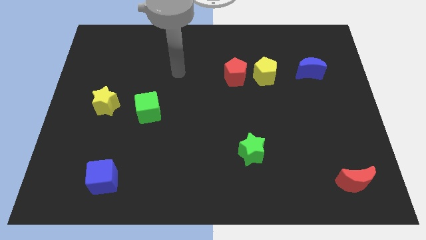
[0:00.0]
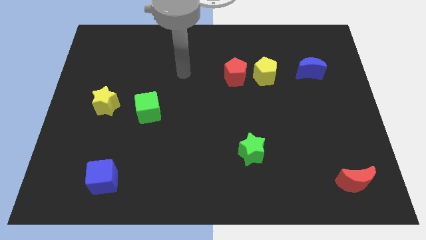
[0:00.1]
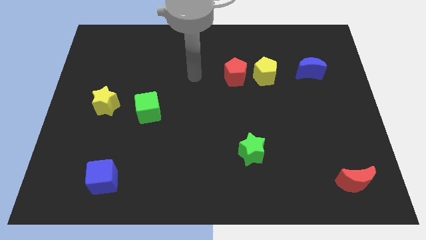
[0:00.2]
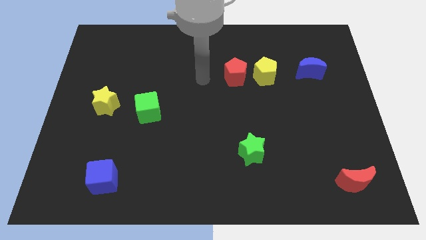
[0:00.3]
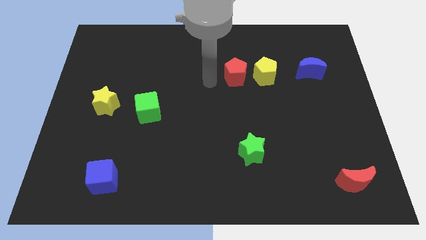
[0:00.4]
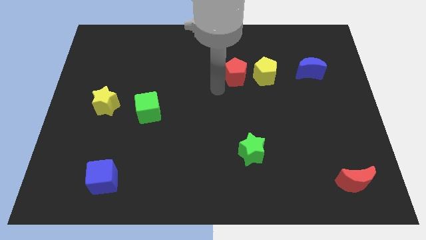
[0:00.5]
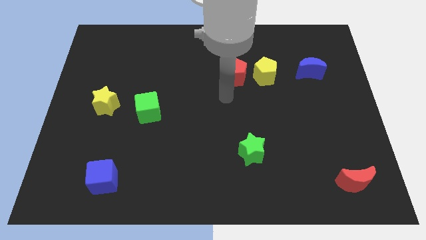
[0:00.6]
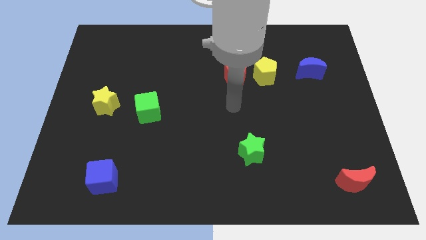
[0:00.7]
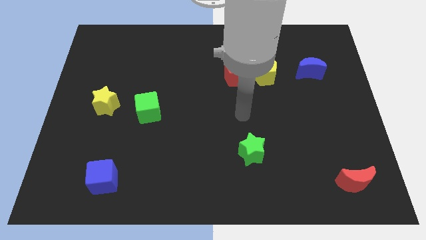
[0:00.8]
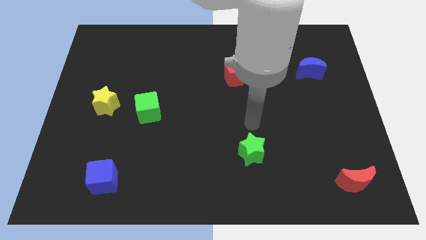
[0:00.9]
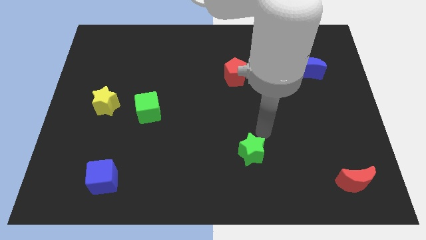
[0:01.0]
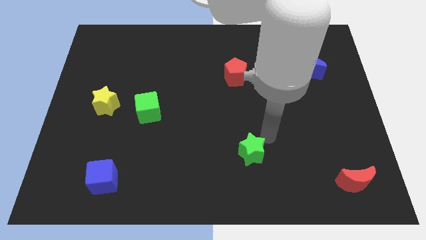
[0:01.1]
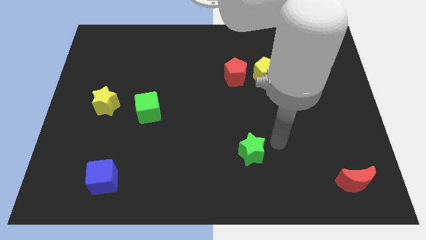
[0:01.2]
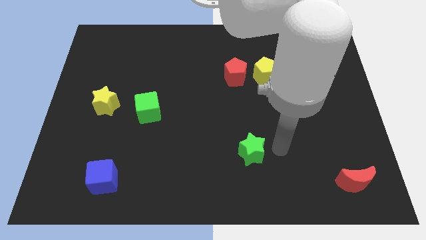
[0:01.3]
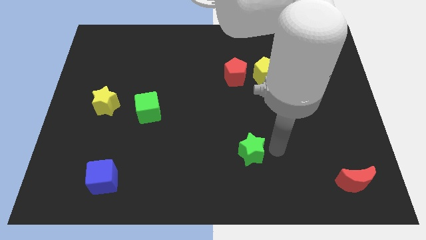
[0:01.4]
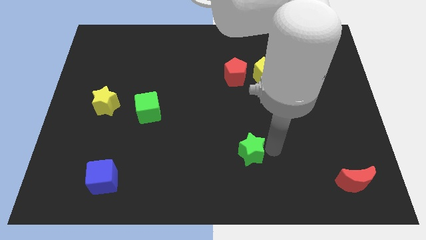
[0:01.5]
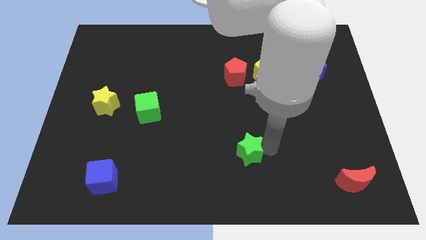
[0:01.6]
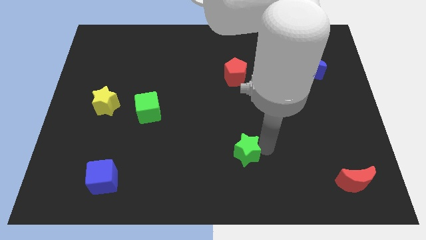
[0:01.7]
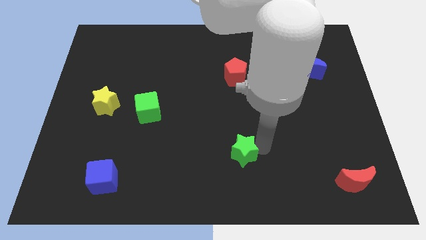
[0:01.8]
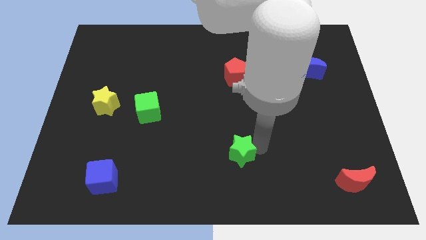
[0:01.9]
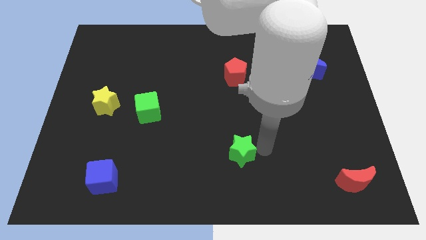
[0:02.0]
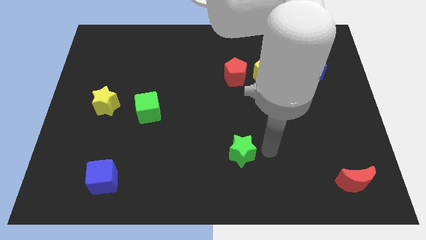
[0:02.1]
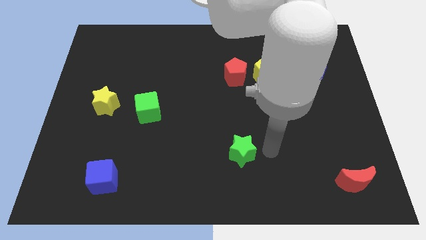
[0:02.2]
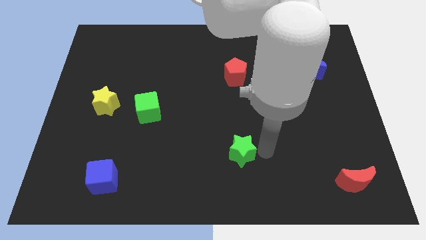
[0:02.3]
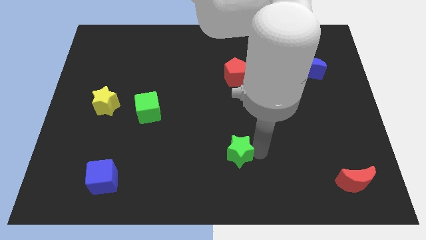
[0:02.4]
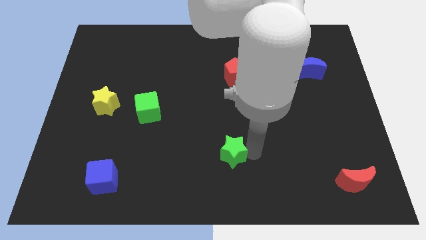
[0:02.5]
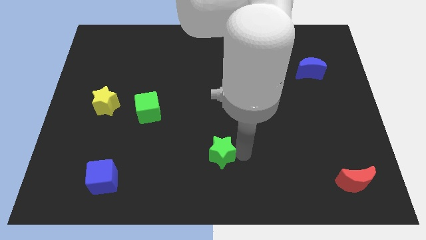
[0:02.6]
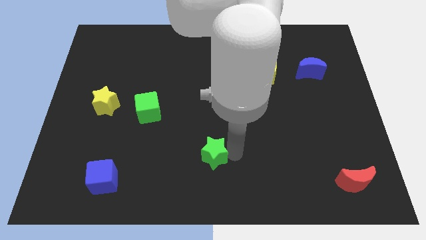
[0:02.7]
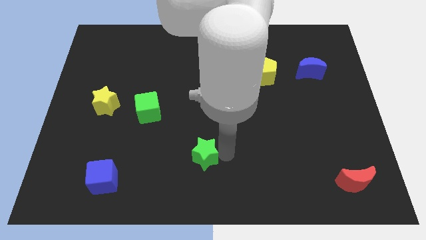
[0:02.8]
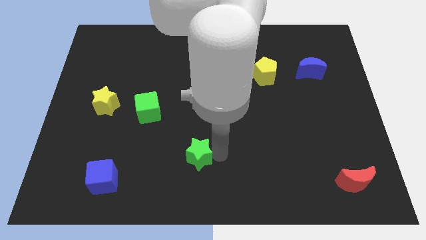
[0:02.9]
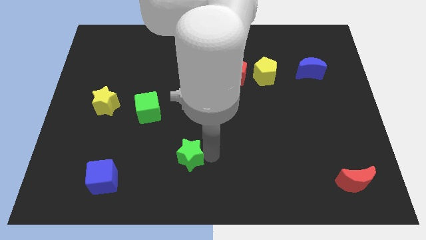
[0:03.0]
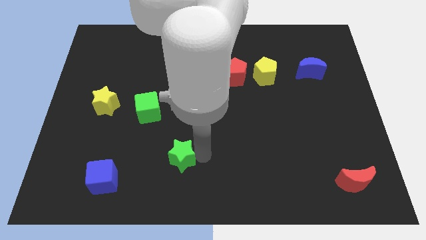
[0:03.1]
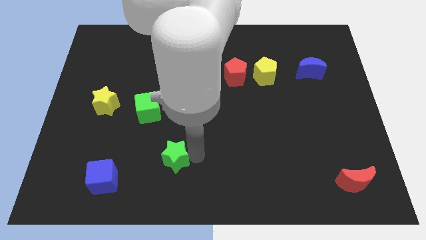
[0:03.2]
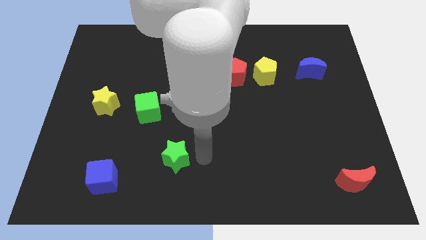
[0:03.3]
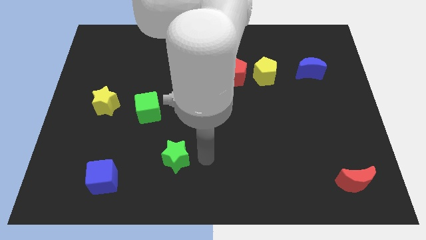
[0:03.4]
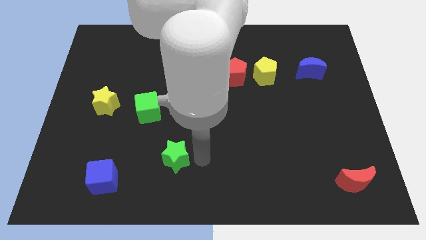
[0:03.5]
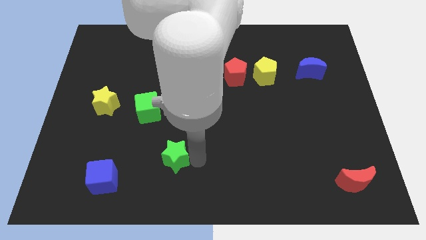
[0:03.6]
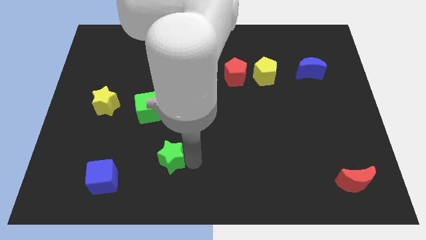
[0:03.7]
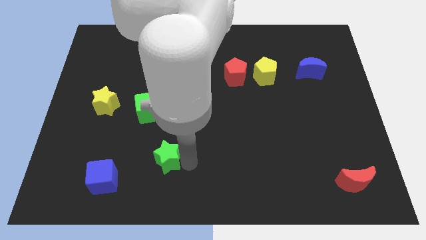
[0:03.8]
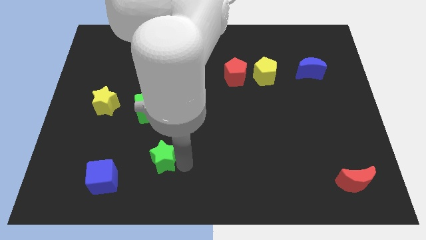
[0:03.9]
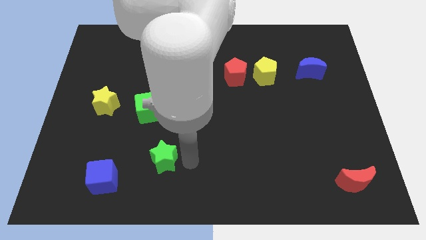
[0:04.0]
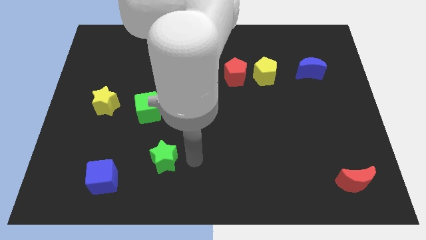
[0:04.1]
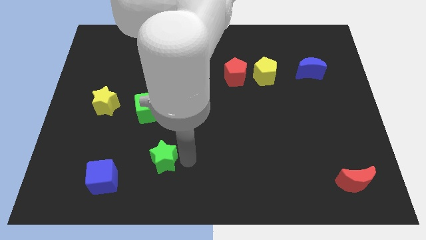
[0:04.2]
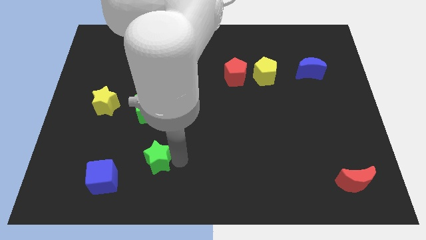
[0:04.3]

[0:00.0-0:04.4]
push the green star to the left

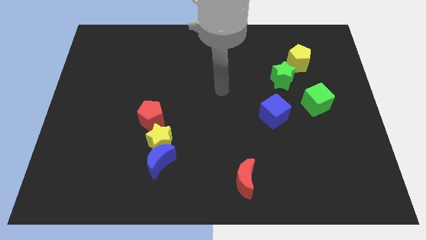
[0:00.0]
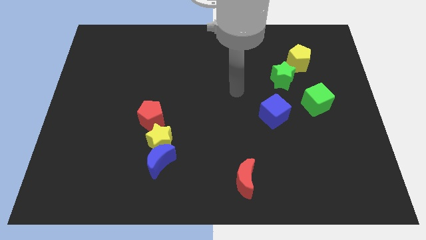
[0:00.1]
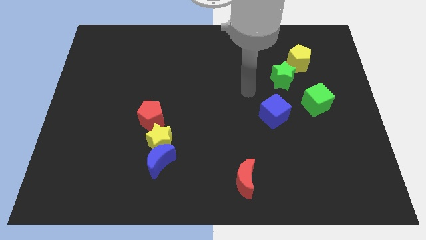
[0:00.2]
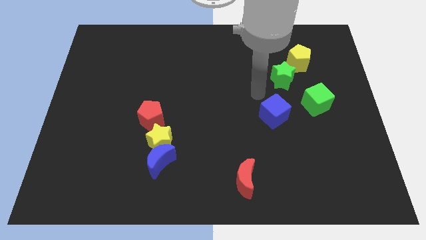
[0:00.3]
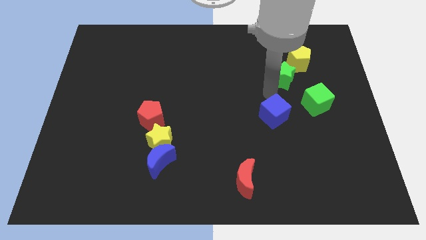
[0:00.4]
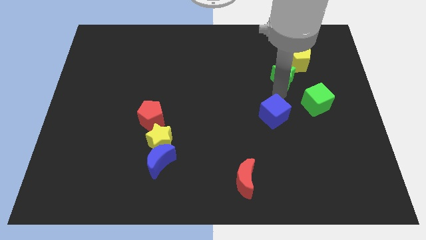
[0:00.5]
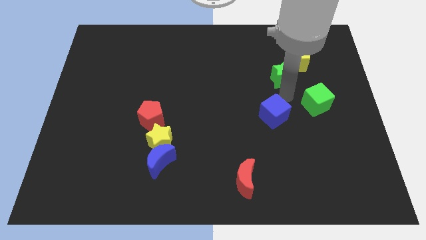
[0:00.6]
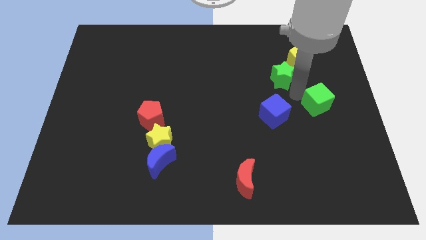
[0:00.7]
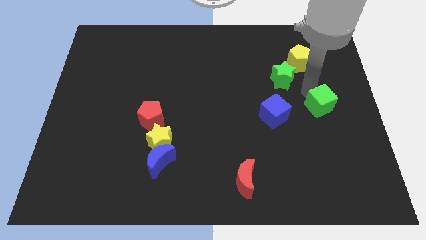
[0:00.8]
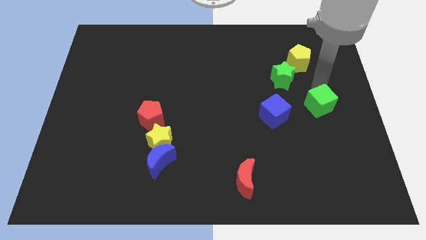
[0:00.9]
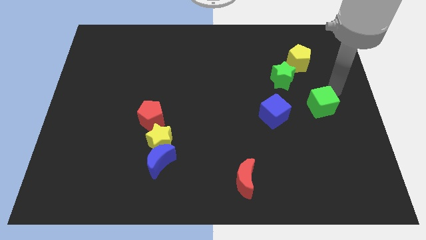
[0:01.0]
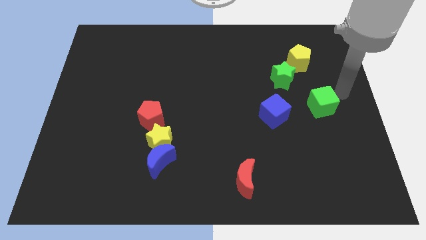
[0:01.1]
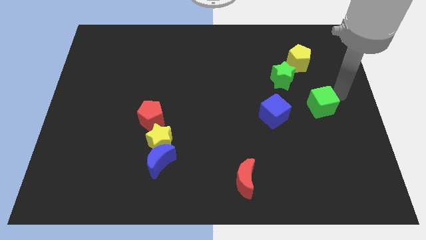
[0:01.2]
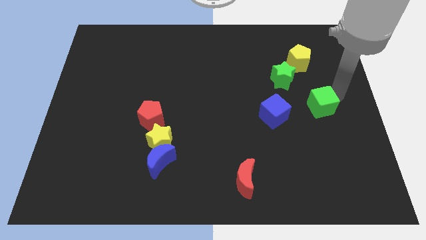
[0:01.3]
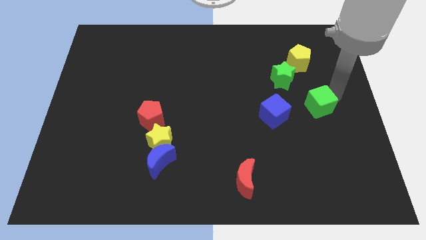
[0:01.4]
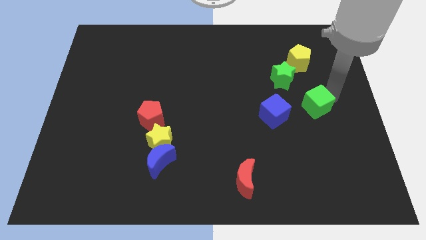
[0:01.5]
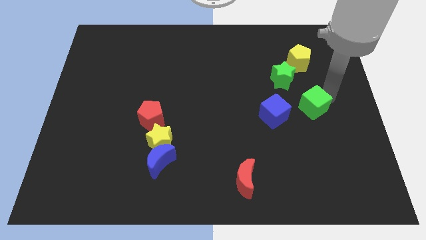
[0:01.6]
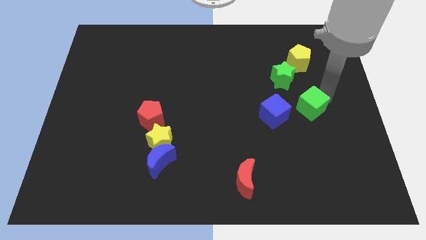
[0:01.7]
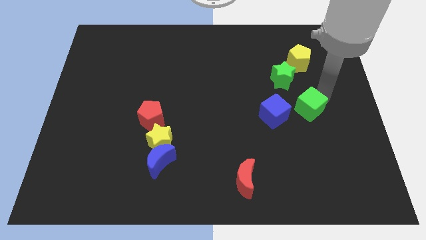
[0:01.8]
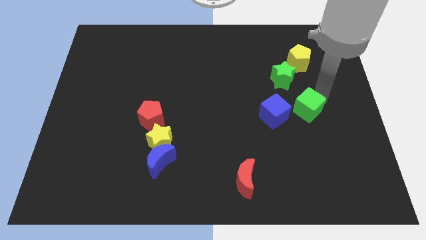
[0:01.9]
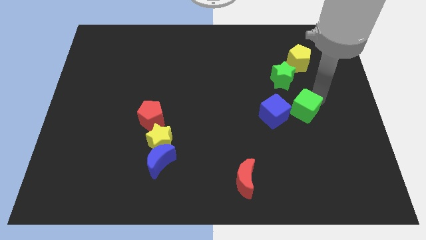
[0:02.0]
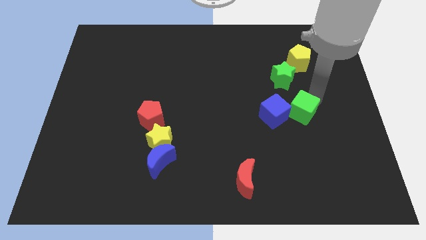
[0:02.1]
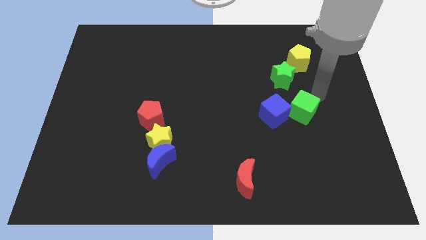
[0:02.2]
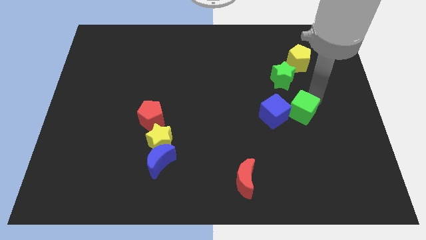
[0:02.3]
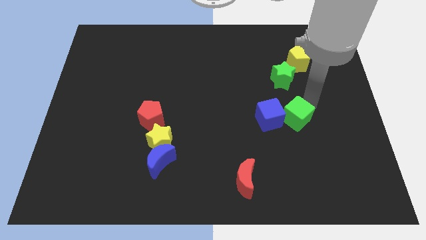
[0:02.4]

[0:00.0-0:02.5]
push the green cube down and left slightly

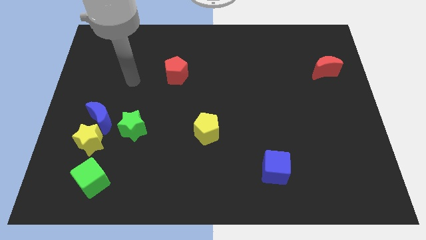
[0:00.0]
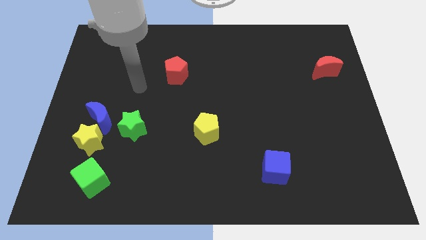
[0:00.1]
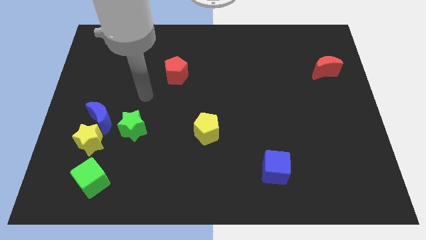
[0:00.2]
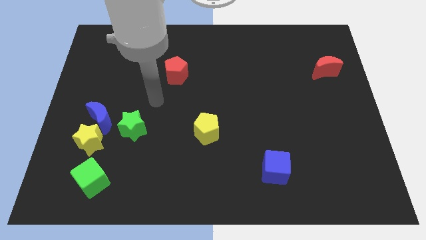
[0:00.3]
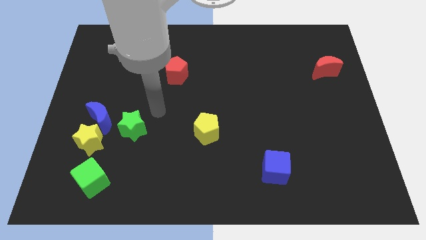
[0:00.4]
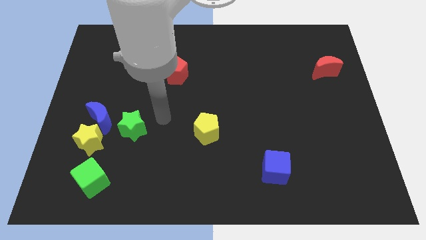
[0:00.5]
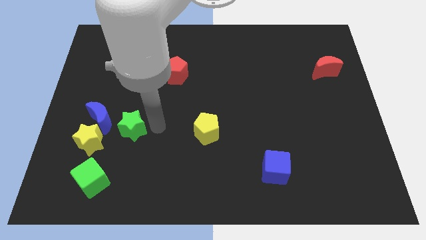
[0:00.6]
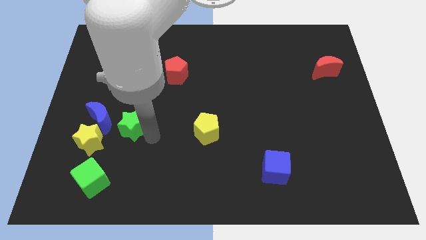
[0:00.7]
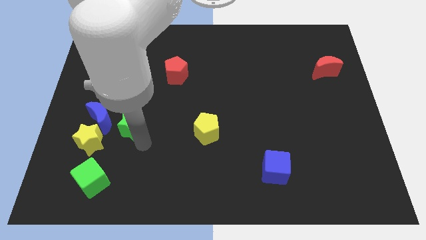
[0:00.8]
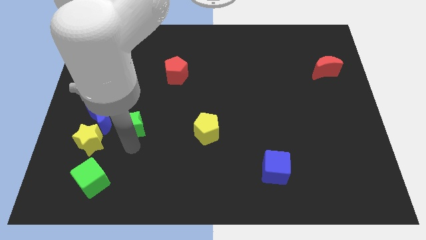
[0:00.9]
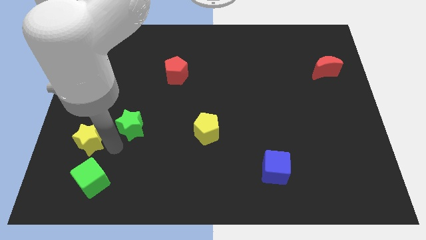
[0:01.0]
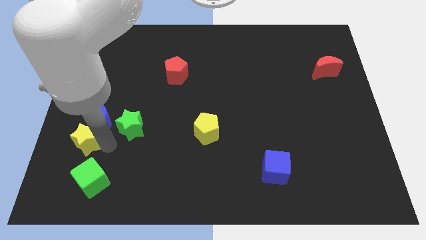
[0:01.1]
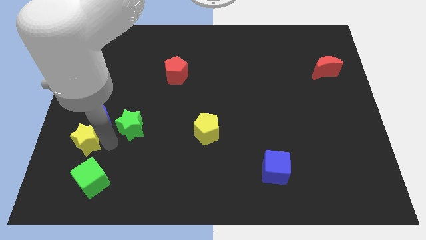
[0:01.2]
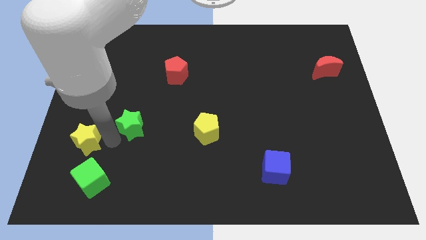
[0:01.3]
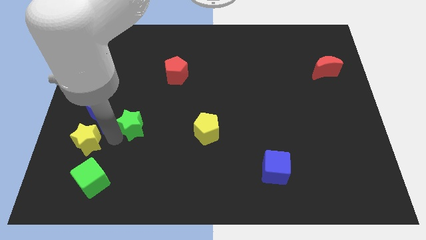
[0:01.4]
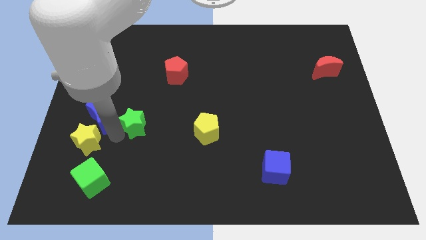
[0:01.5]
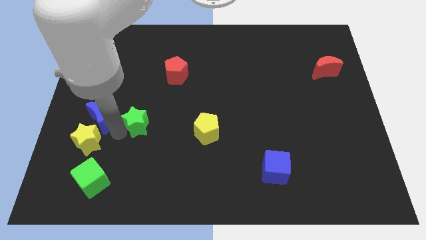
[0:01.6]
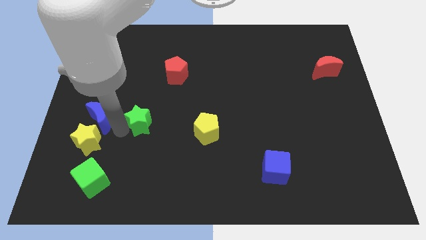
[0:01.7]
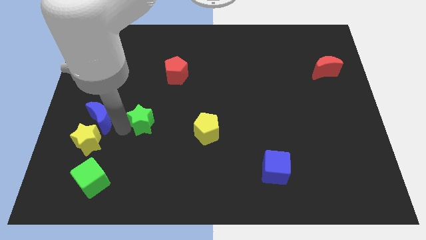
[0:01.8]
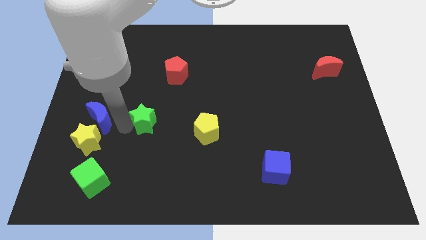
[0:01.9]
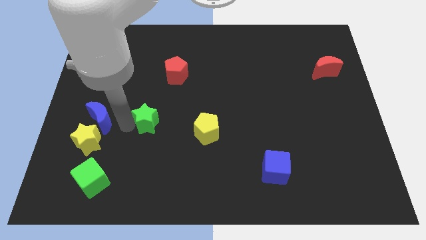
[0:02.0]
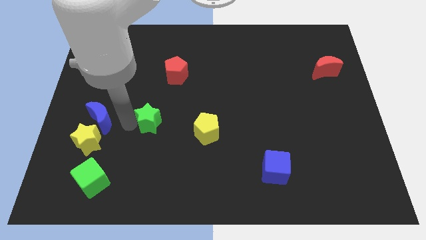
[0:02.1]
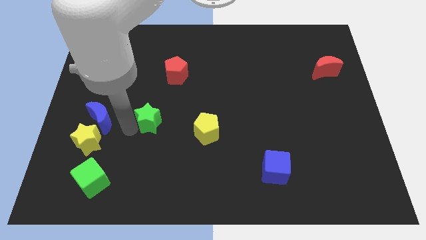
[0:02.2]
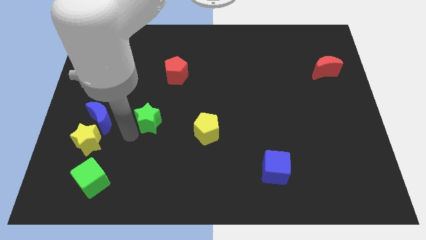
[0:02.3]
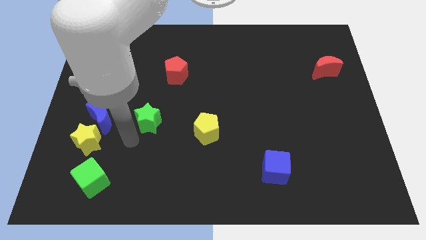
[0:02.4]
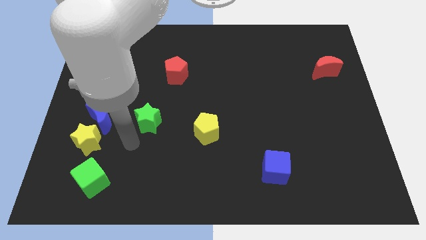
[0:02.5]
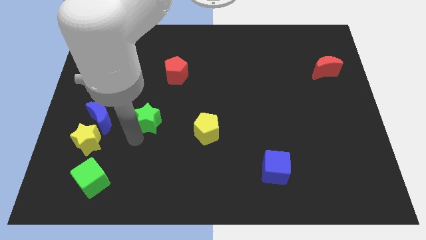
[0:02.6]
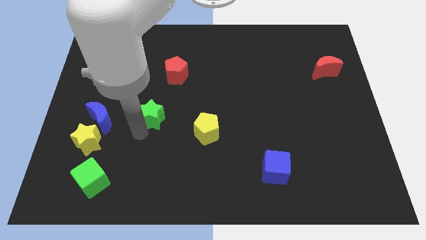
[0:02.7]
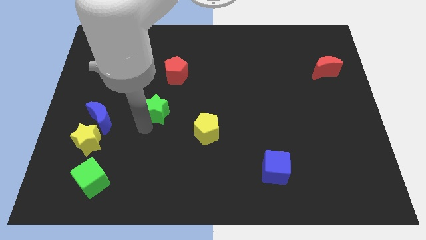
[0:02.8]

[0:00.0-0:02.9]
slide the green star a little diagonally upwards and right
